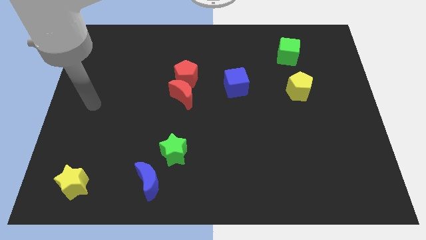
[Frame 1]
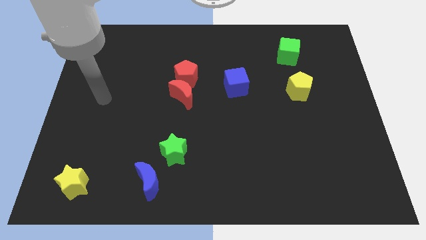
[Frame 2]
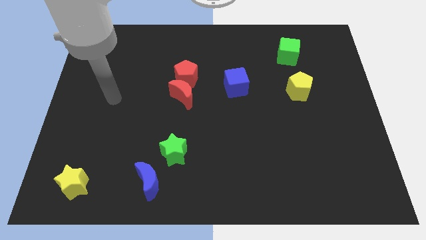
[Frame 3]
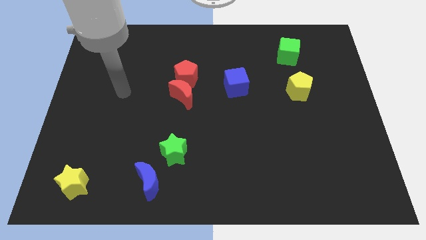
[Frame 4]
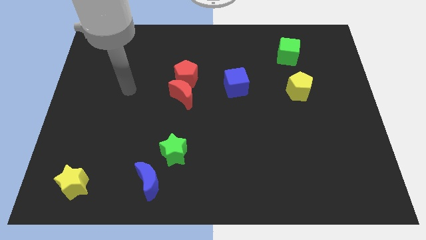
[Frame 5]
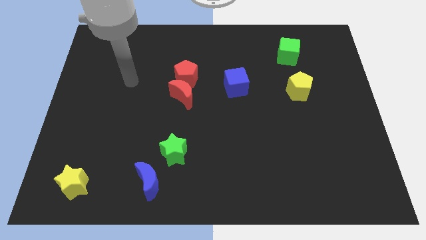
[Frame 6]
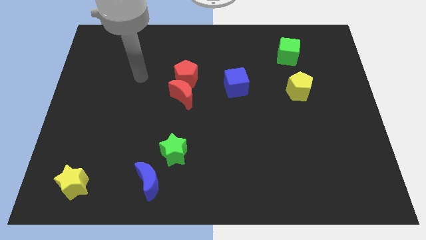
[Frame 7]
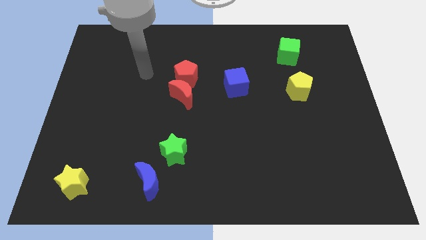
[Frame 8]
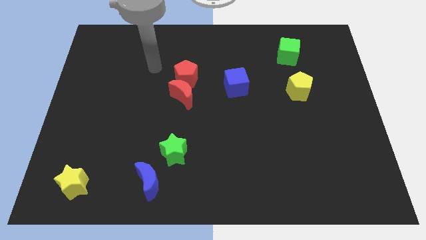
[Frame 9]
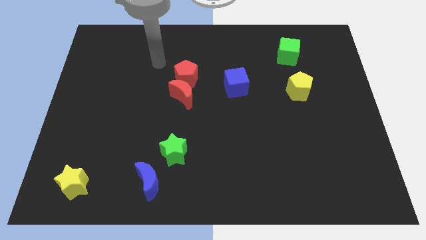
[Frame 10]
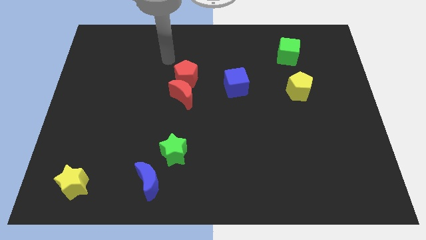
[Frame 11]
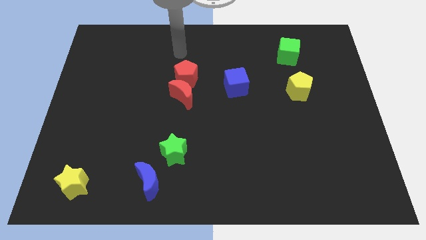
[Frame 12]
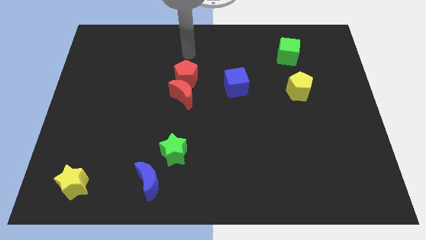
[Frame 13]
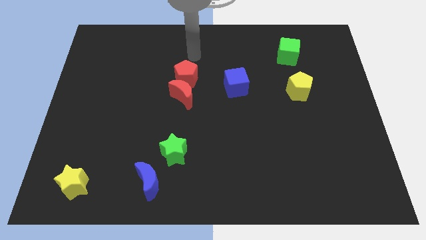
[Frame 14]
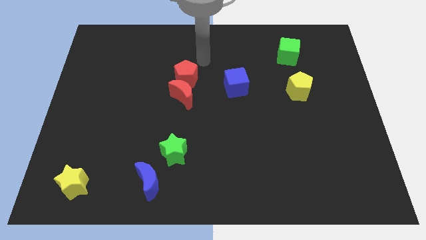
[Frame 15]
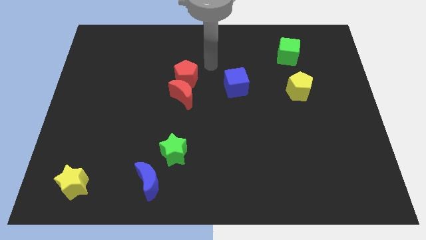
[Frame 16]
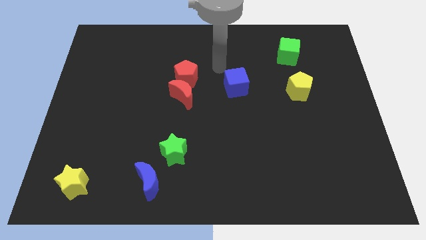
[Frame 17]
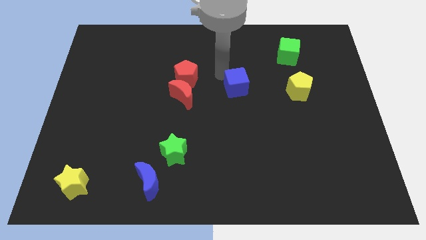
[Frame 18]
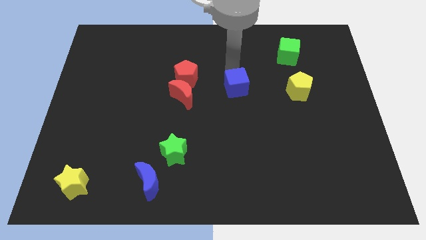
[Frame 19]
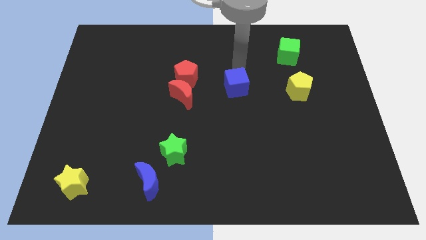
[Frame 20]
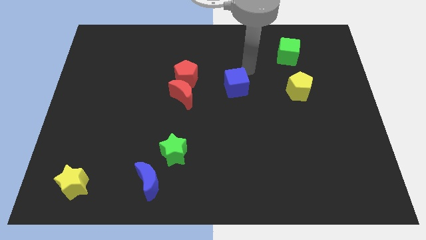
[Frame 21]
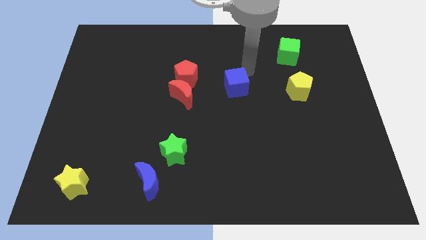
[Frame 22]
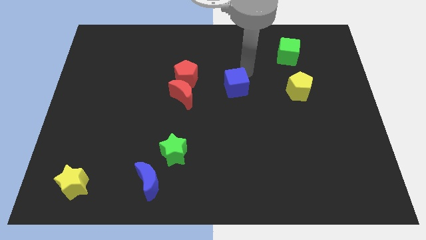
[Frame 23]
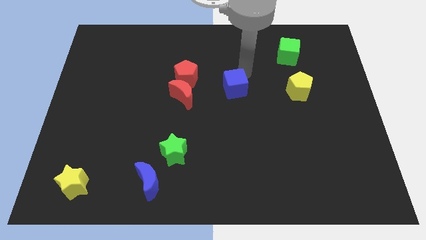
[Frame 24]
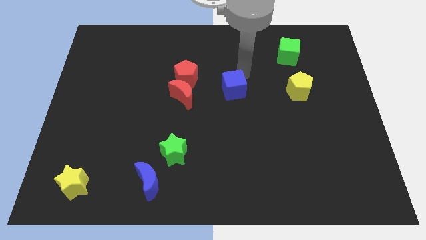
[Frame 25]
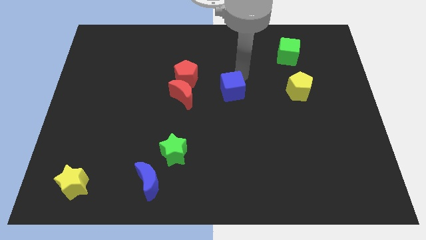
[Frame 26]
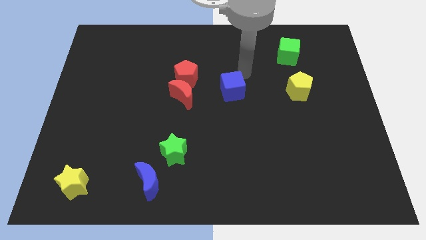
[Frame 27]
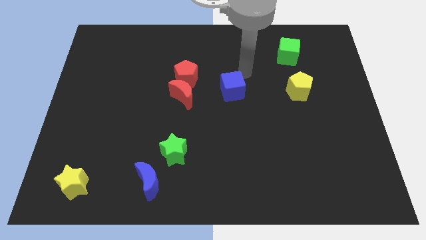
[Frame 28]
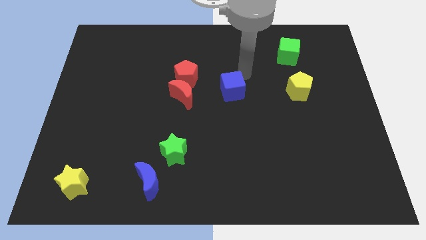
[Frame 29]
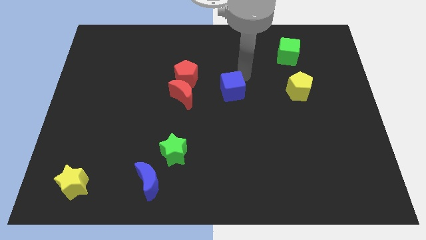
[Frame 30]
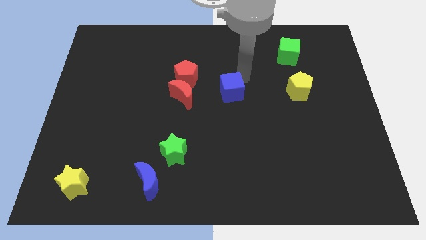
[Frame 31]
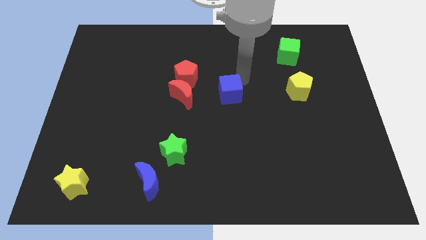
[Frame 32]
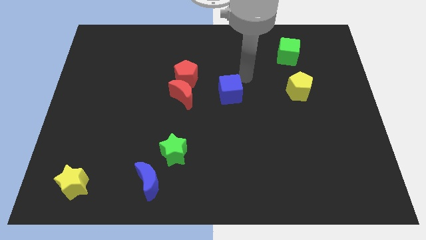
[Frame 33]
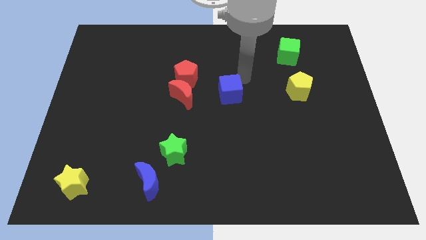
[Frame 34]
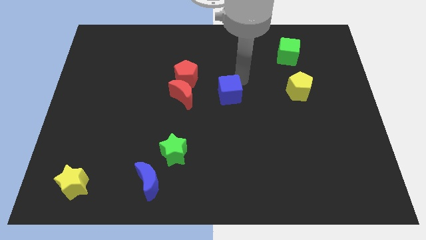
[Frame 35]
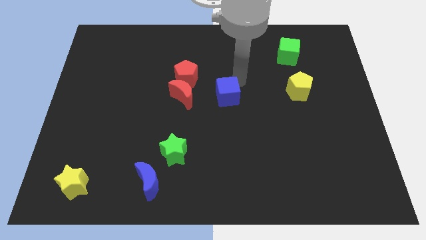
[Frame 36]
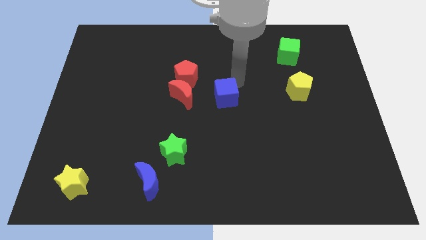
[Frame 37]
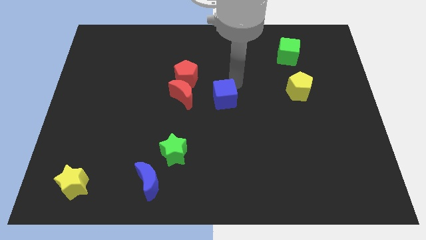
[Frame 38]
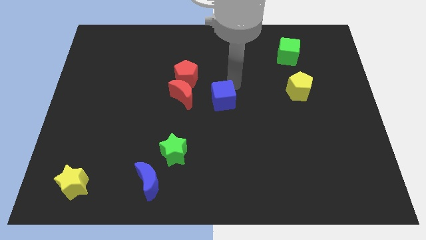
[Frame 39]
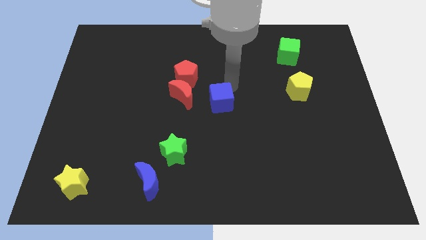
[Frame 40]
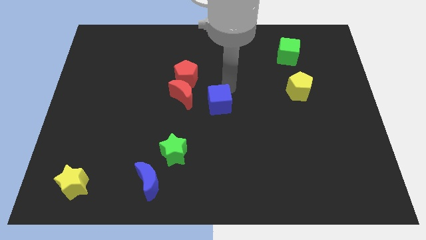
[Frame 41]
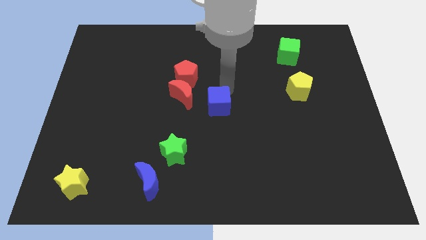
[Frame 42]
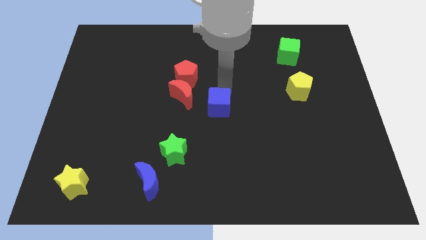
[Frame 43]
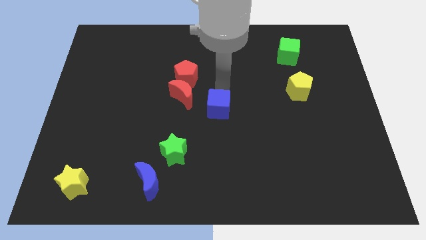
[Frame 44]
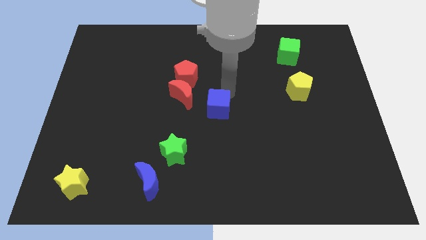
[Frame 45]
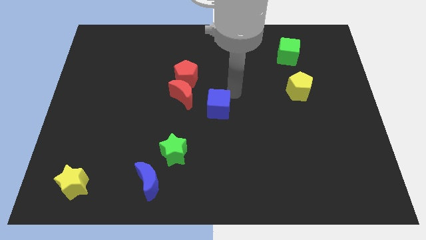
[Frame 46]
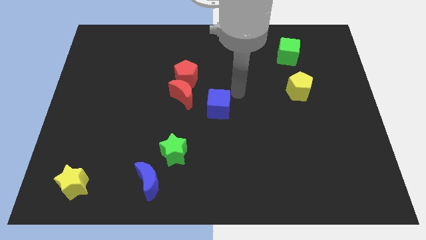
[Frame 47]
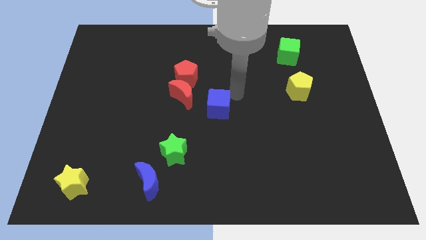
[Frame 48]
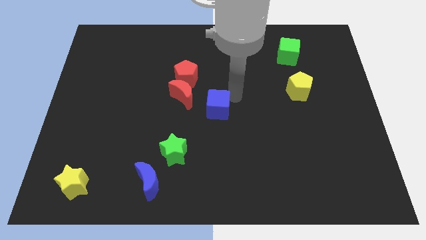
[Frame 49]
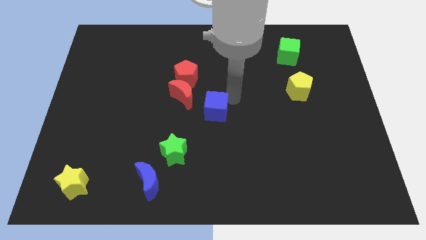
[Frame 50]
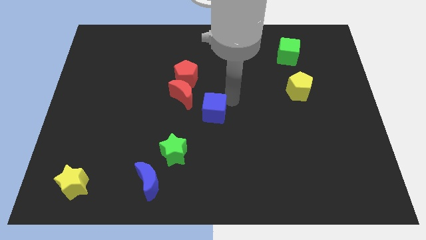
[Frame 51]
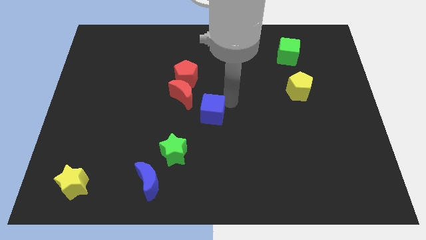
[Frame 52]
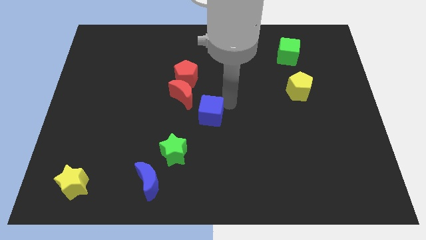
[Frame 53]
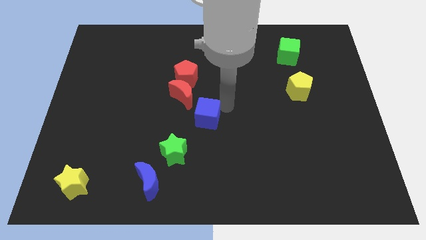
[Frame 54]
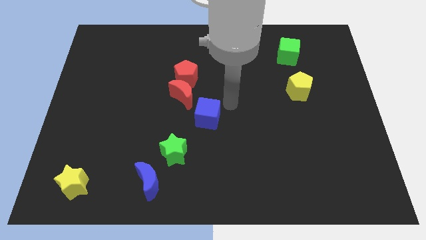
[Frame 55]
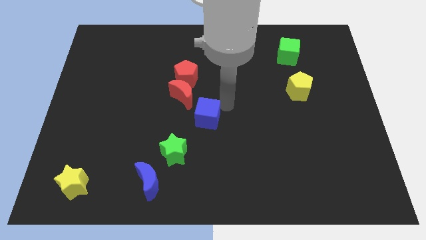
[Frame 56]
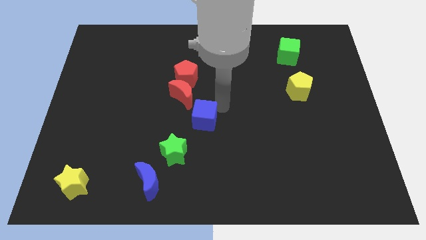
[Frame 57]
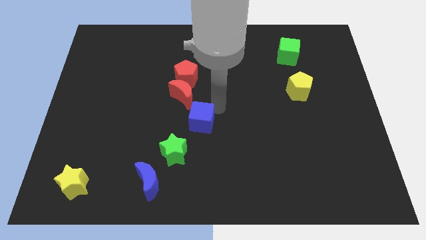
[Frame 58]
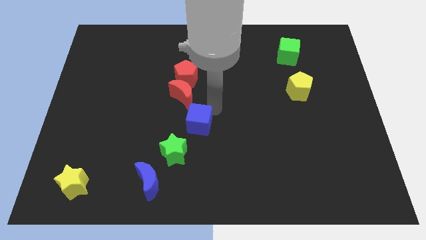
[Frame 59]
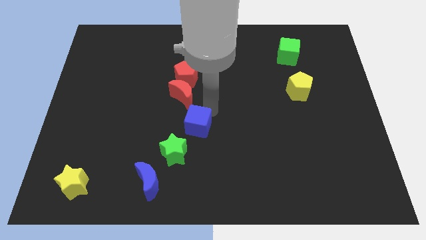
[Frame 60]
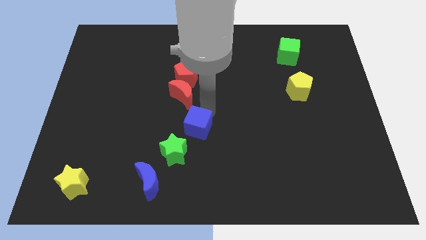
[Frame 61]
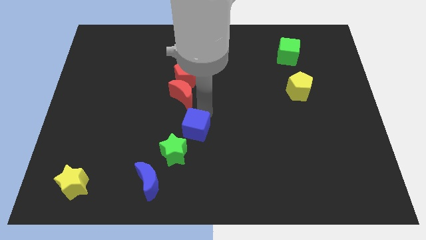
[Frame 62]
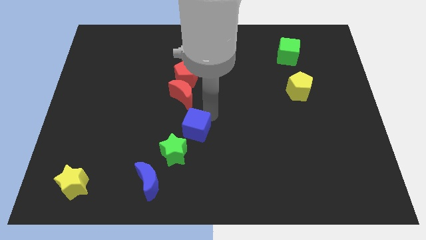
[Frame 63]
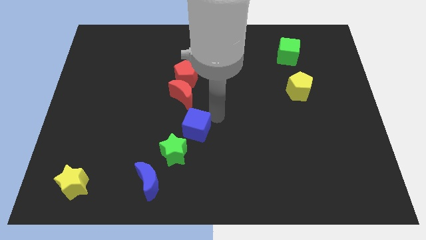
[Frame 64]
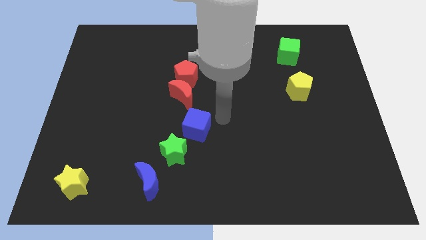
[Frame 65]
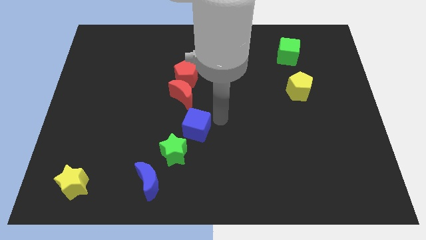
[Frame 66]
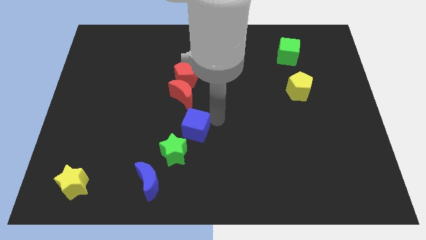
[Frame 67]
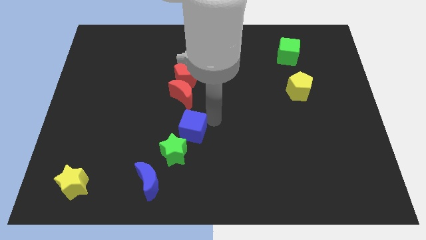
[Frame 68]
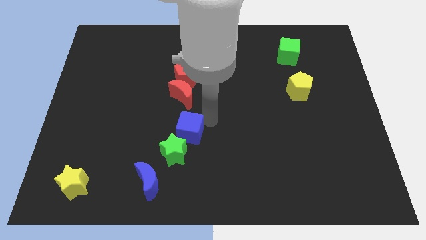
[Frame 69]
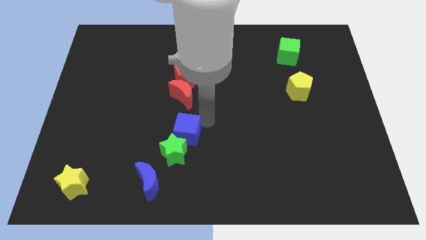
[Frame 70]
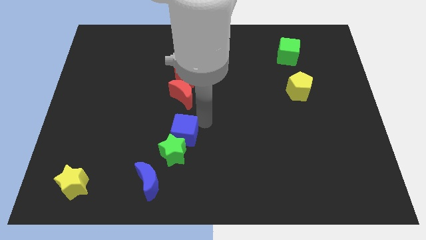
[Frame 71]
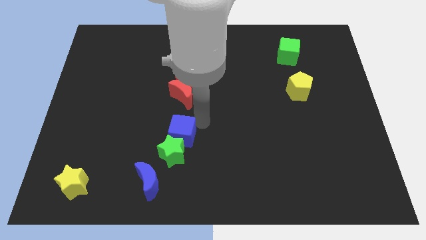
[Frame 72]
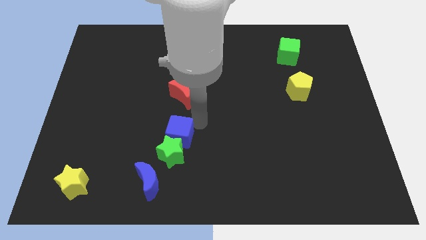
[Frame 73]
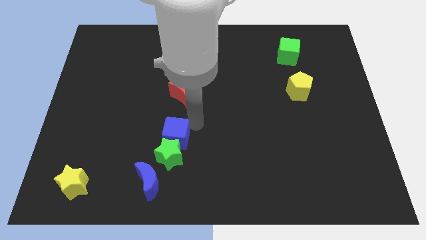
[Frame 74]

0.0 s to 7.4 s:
slide the blue cube down and to the left diagonally

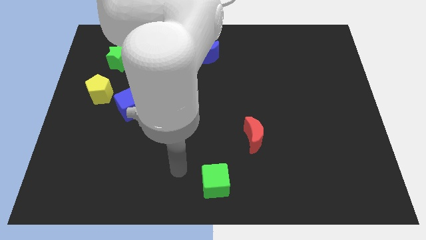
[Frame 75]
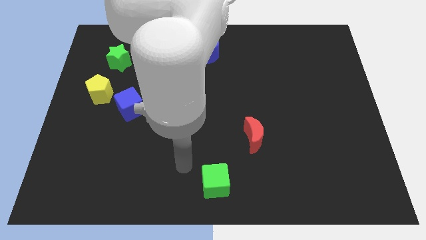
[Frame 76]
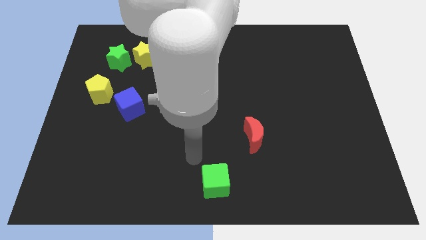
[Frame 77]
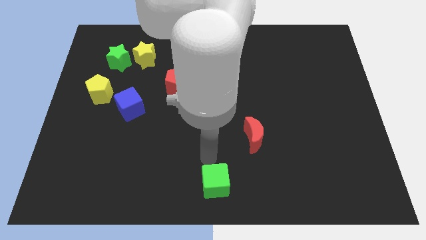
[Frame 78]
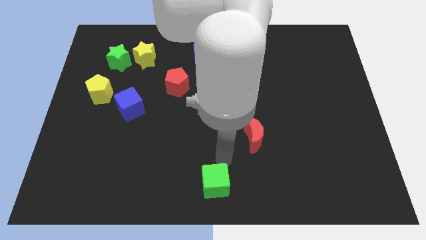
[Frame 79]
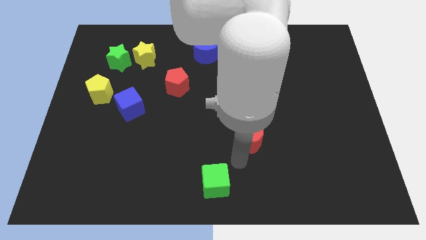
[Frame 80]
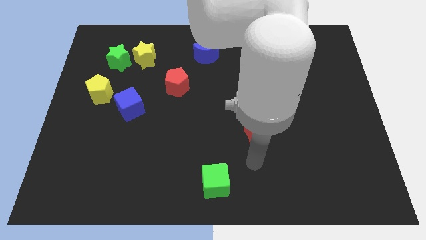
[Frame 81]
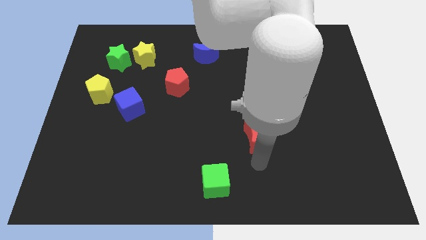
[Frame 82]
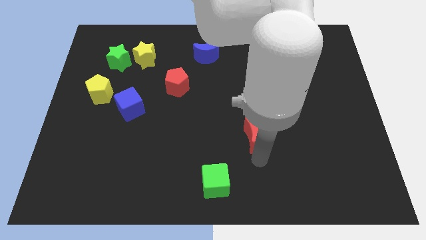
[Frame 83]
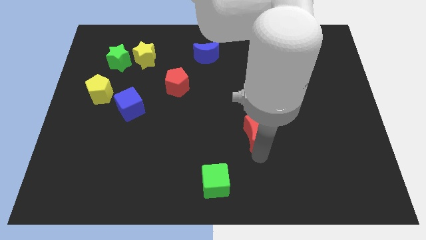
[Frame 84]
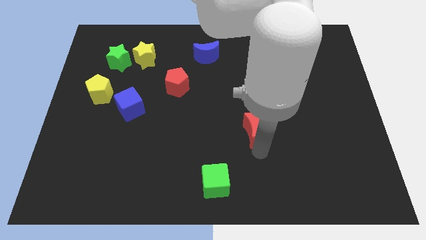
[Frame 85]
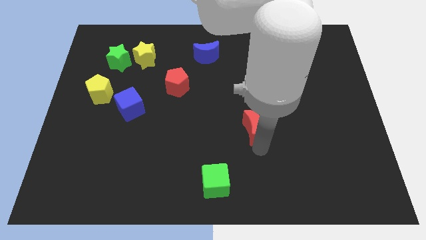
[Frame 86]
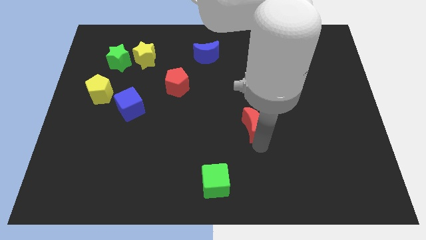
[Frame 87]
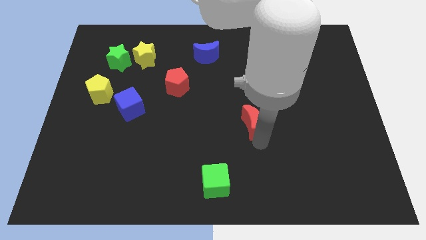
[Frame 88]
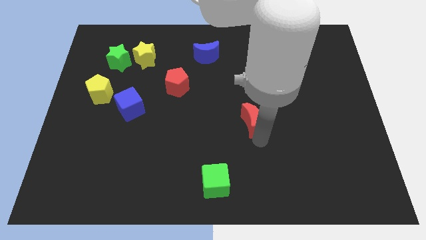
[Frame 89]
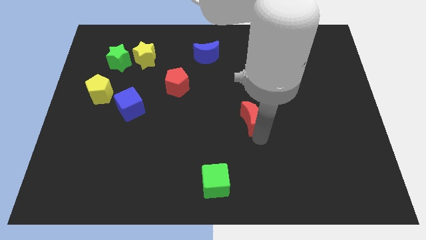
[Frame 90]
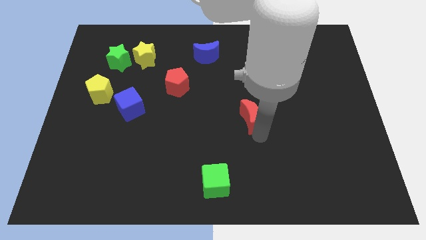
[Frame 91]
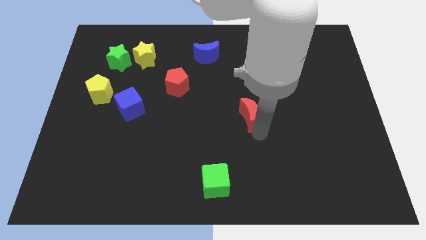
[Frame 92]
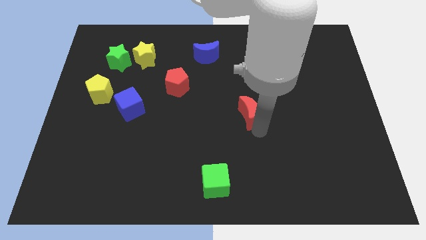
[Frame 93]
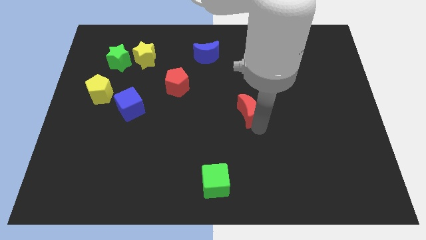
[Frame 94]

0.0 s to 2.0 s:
slide the red moon a little bit upwards
